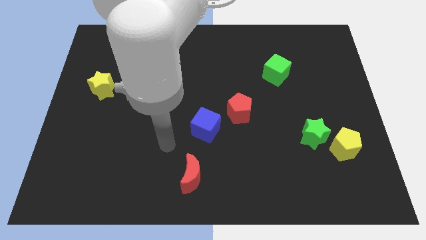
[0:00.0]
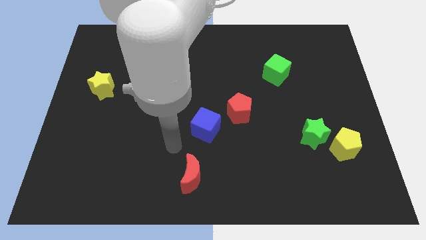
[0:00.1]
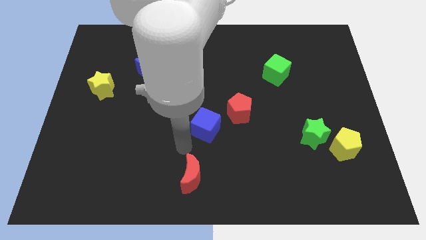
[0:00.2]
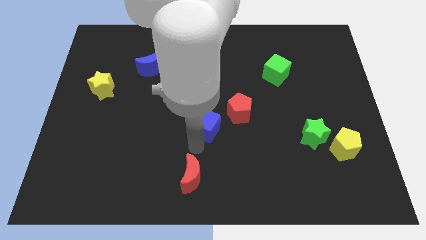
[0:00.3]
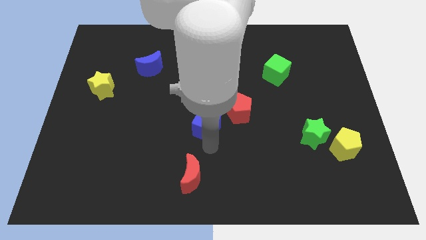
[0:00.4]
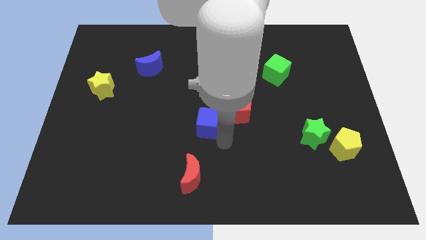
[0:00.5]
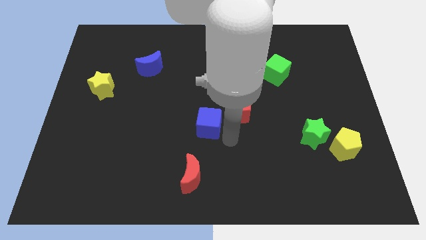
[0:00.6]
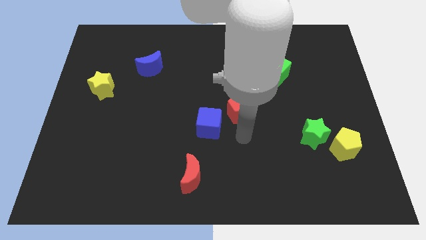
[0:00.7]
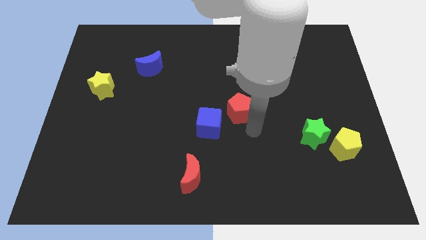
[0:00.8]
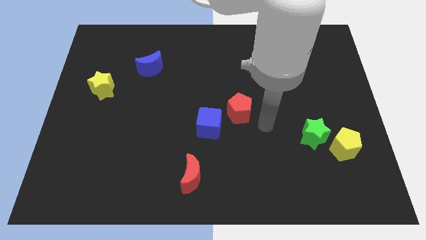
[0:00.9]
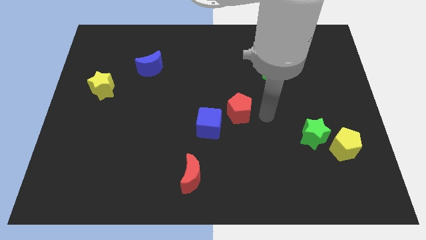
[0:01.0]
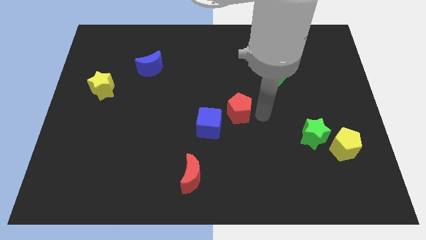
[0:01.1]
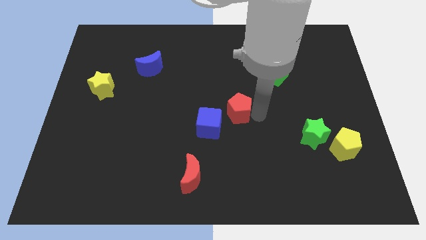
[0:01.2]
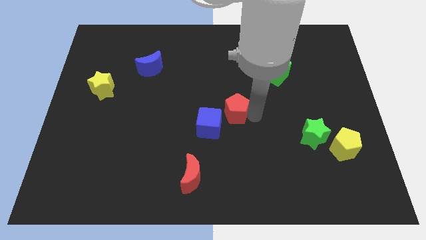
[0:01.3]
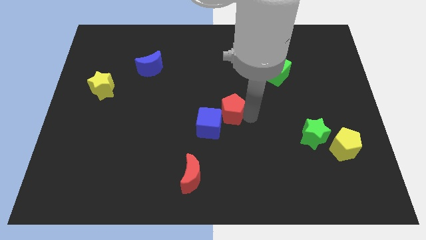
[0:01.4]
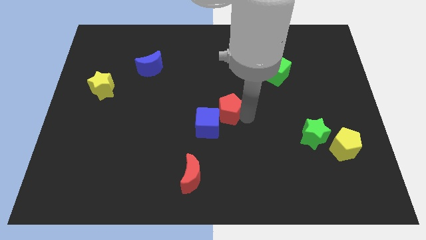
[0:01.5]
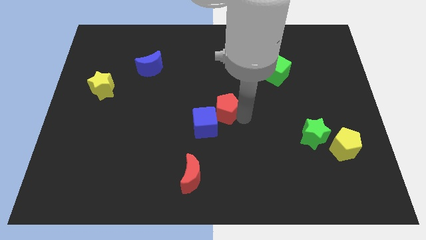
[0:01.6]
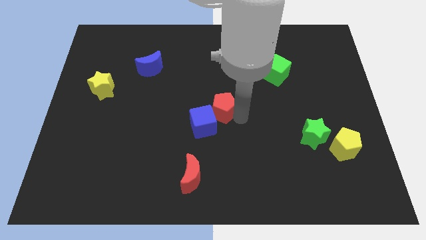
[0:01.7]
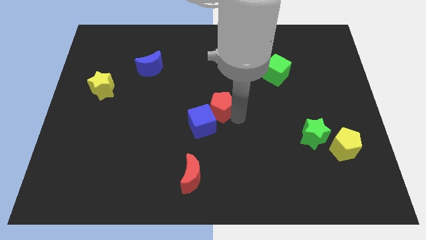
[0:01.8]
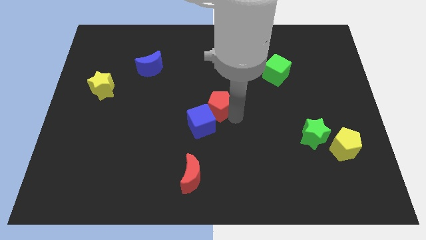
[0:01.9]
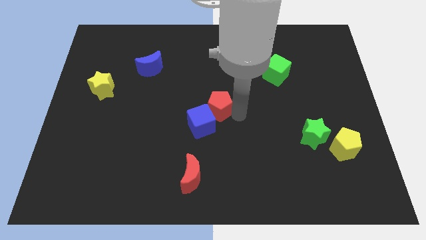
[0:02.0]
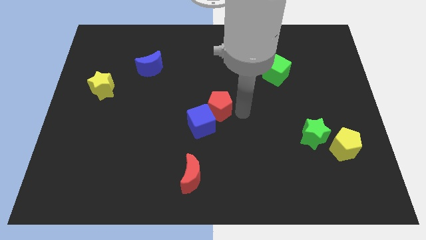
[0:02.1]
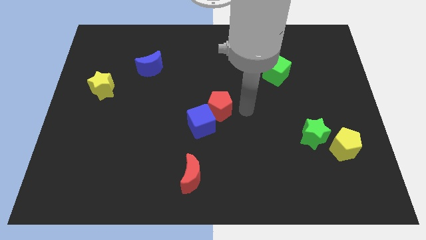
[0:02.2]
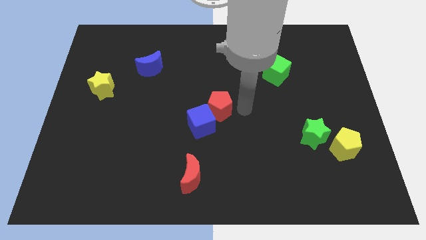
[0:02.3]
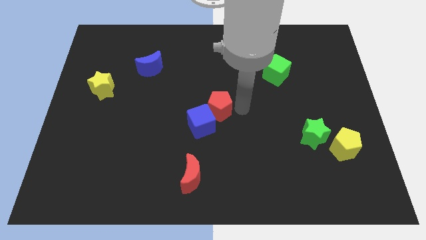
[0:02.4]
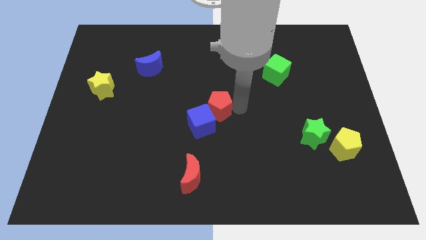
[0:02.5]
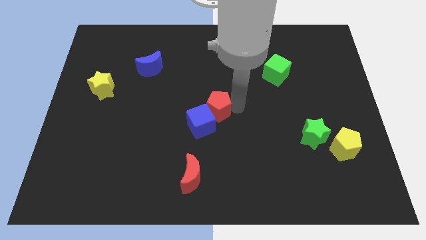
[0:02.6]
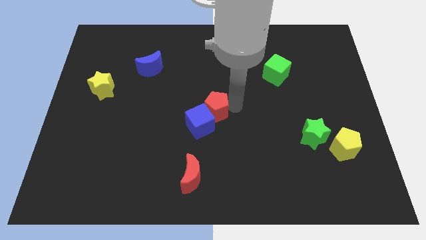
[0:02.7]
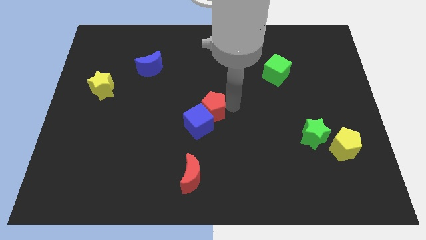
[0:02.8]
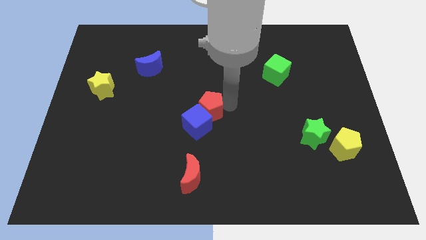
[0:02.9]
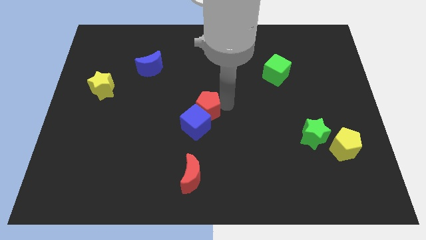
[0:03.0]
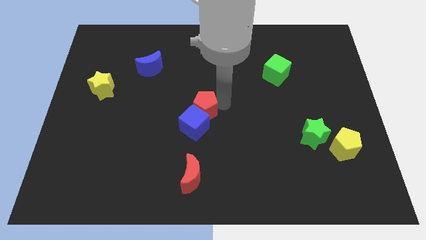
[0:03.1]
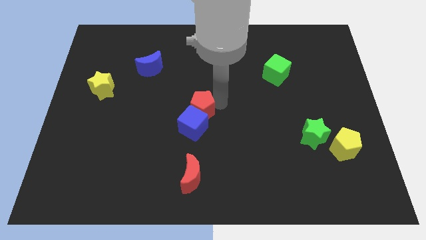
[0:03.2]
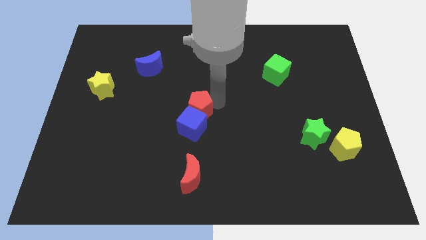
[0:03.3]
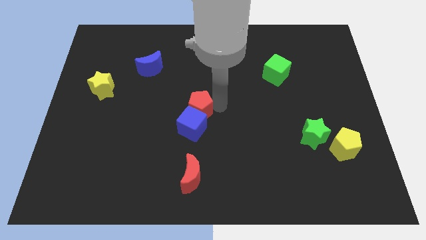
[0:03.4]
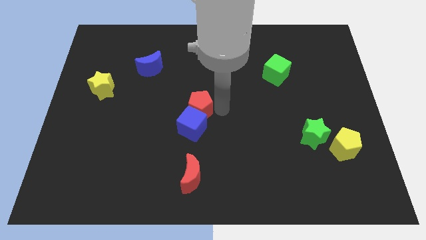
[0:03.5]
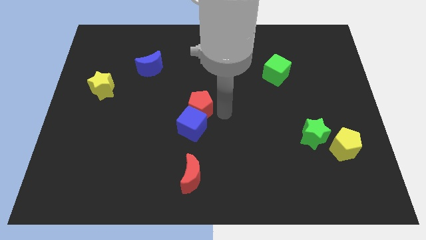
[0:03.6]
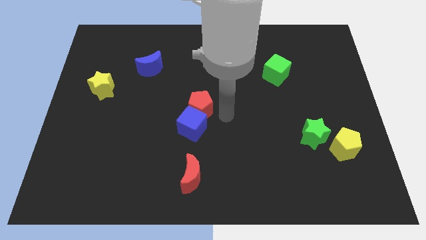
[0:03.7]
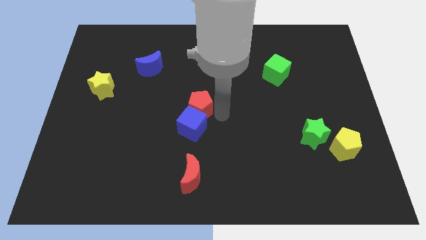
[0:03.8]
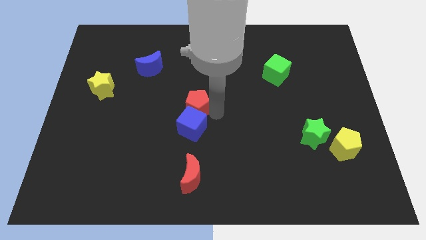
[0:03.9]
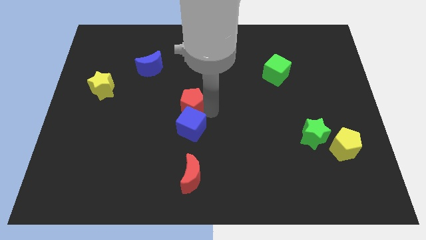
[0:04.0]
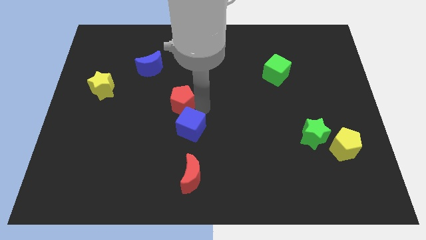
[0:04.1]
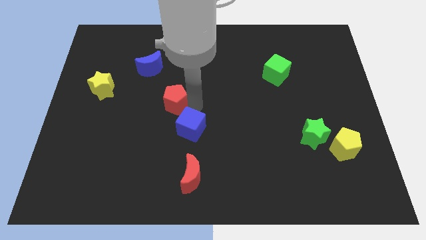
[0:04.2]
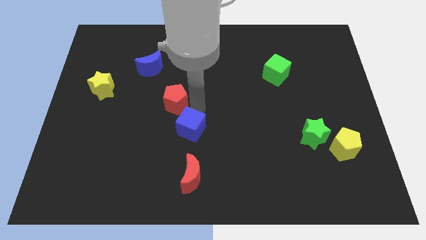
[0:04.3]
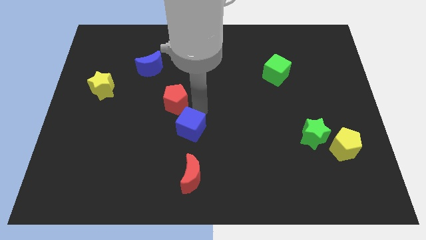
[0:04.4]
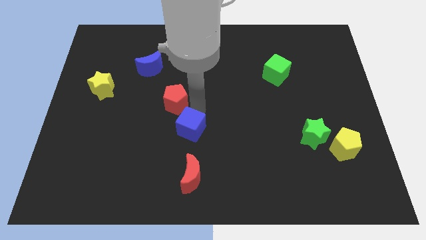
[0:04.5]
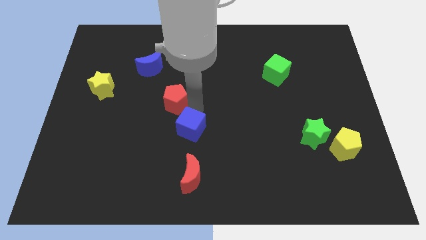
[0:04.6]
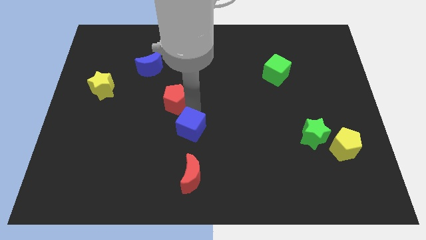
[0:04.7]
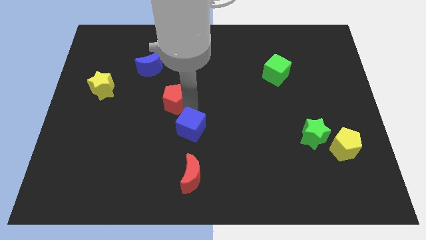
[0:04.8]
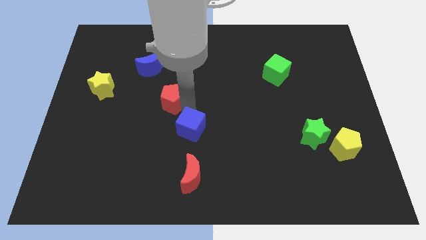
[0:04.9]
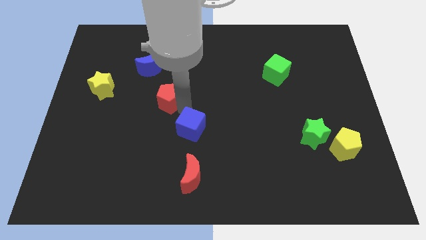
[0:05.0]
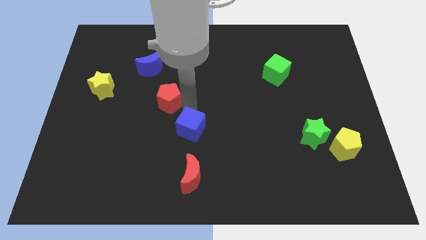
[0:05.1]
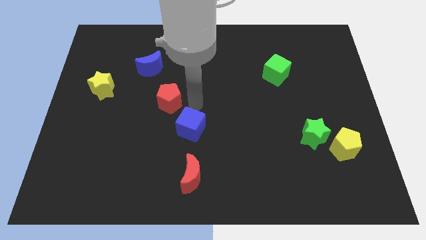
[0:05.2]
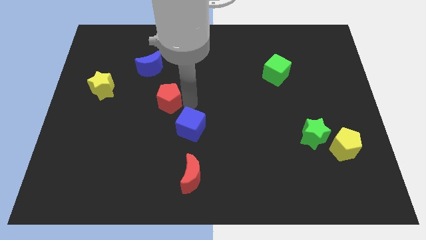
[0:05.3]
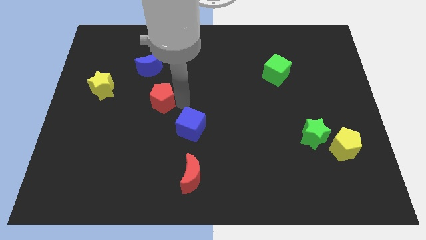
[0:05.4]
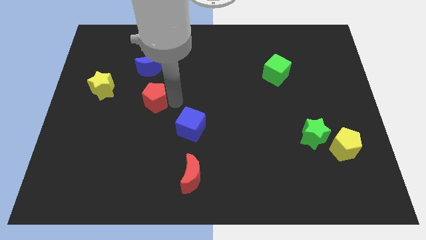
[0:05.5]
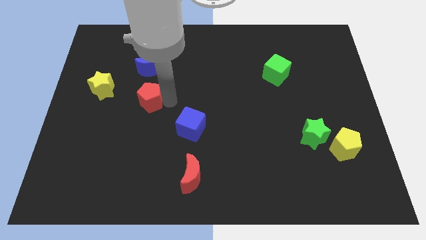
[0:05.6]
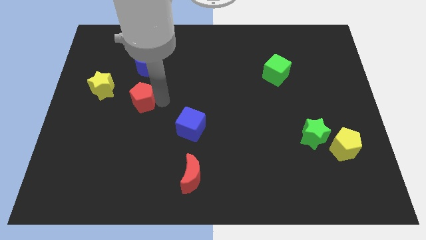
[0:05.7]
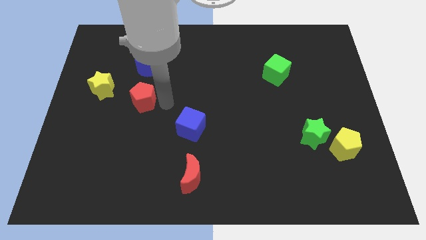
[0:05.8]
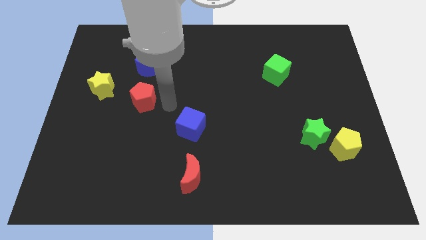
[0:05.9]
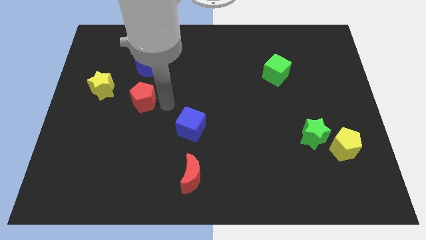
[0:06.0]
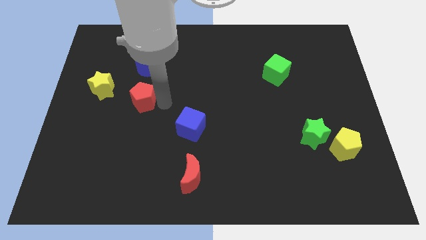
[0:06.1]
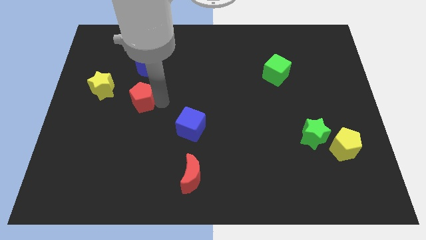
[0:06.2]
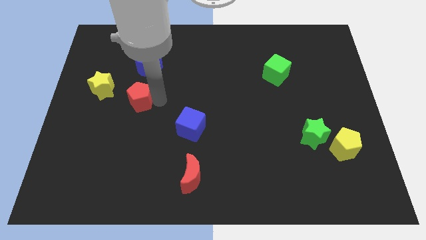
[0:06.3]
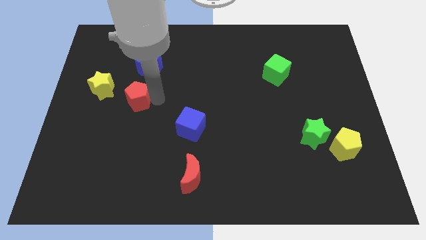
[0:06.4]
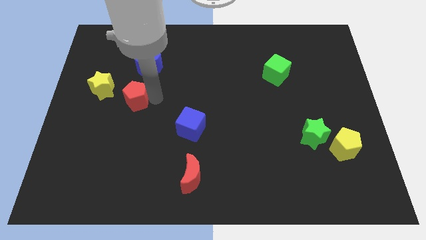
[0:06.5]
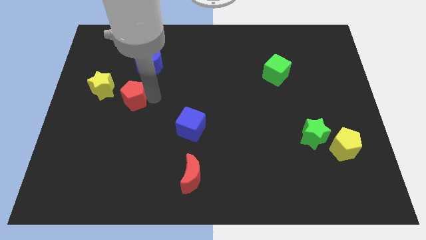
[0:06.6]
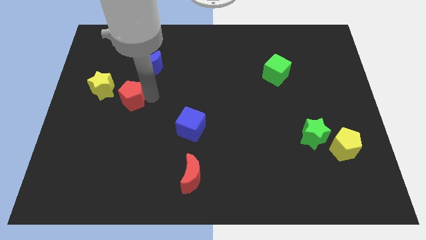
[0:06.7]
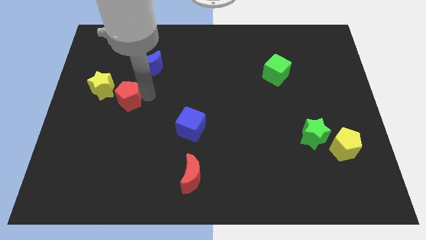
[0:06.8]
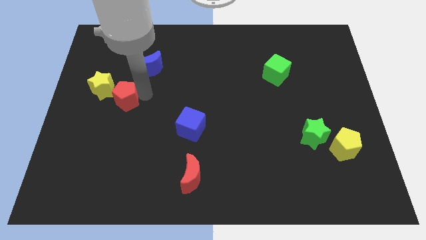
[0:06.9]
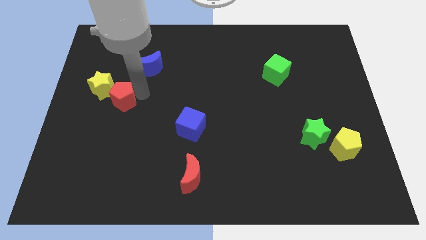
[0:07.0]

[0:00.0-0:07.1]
move the red pentagon close to the yellow star
